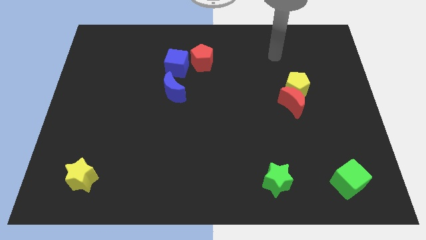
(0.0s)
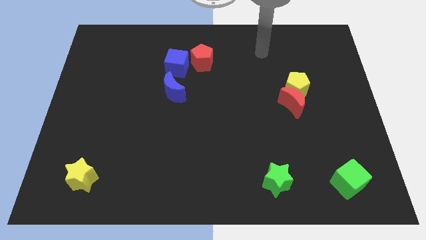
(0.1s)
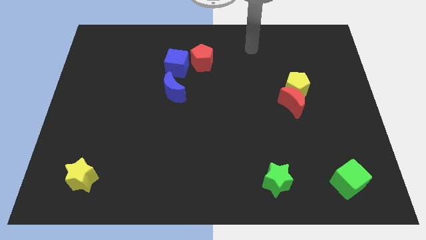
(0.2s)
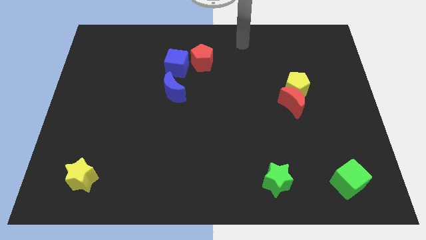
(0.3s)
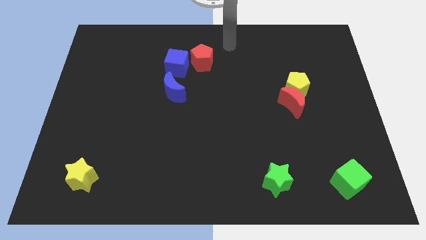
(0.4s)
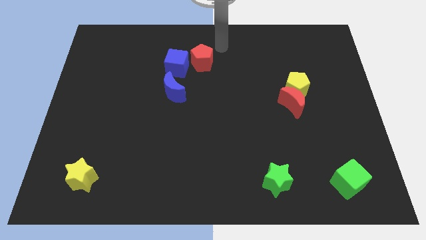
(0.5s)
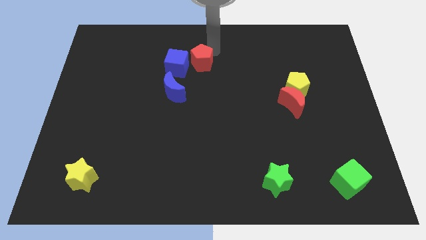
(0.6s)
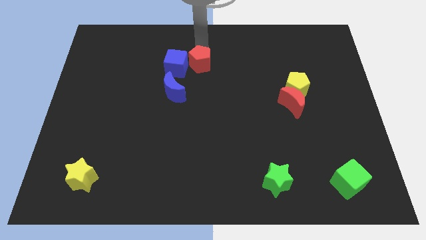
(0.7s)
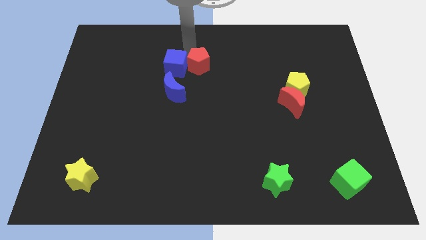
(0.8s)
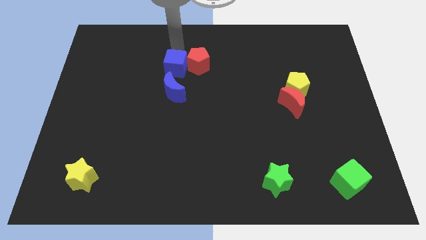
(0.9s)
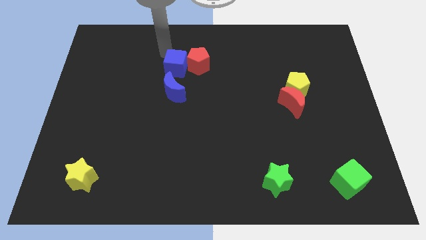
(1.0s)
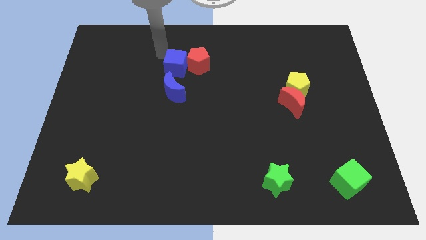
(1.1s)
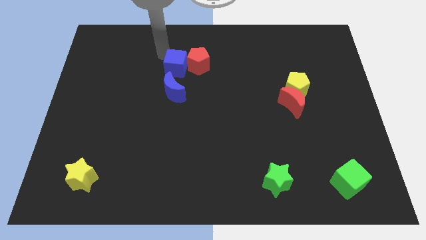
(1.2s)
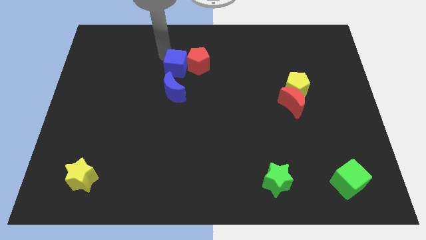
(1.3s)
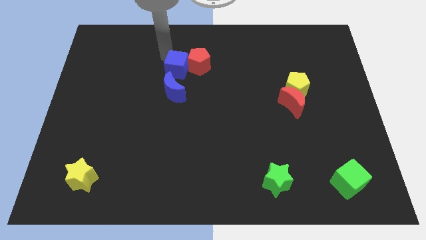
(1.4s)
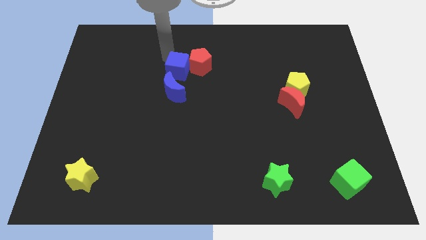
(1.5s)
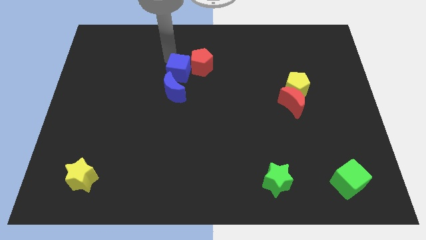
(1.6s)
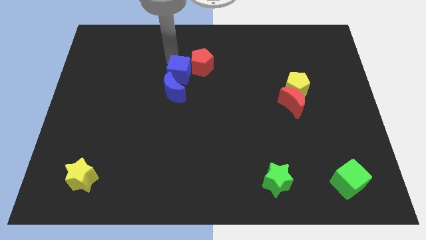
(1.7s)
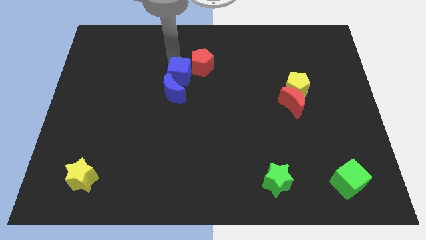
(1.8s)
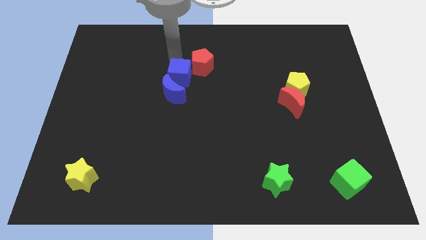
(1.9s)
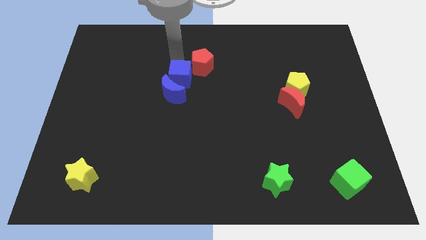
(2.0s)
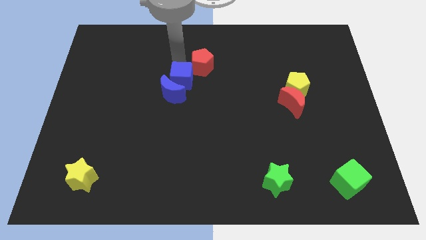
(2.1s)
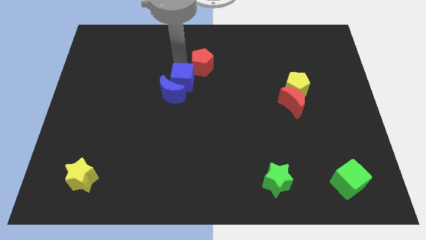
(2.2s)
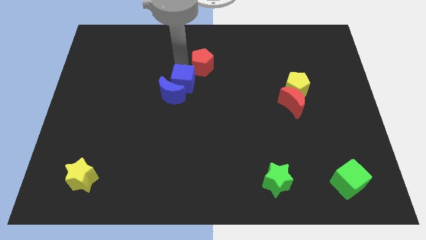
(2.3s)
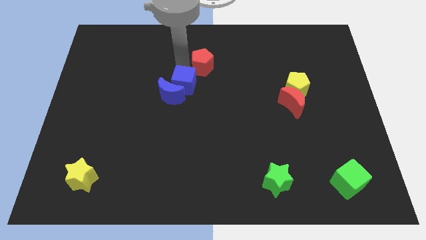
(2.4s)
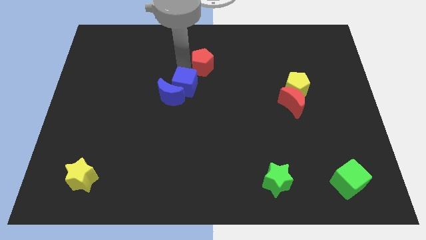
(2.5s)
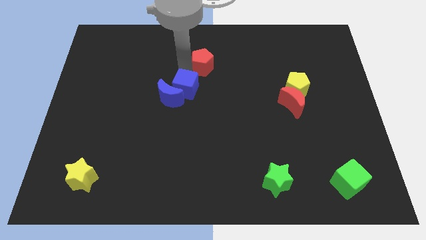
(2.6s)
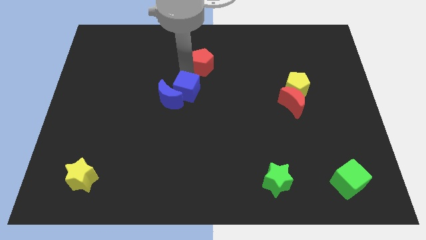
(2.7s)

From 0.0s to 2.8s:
slide the blue cube down and right diagonally a bit

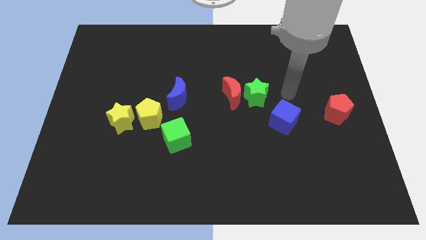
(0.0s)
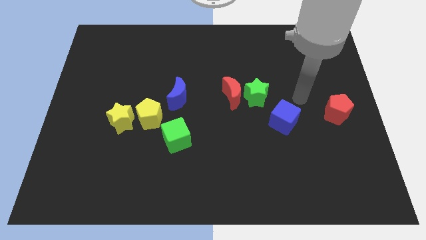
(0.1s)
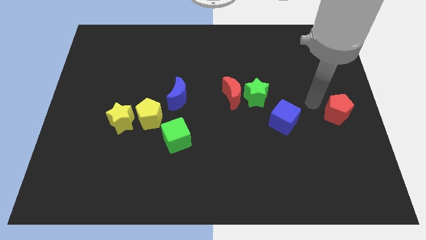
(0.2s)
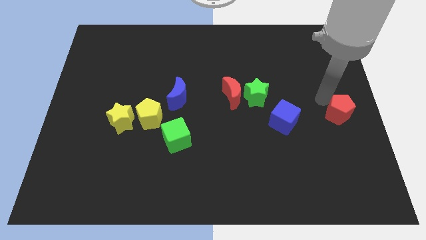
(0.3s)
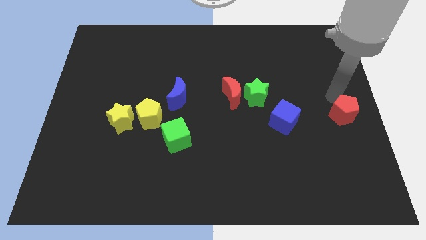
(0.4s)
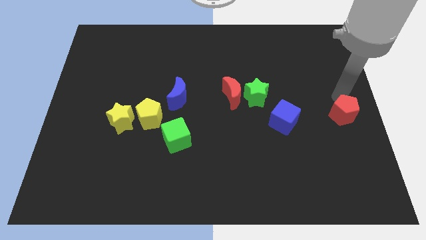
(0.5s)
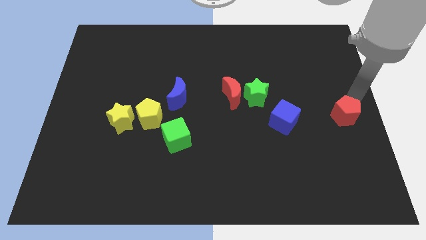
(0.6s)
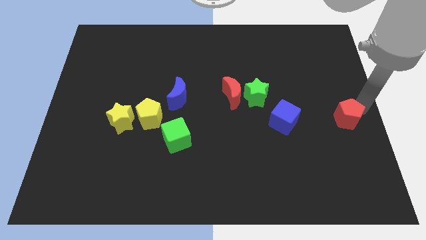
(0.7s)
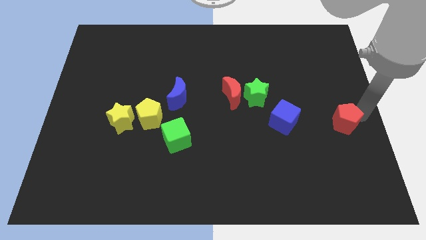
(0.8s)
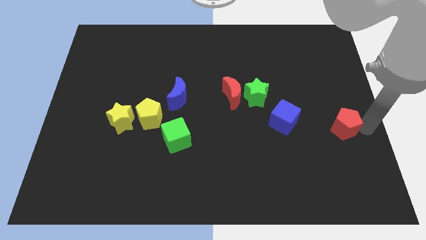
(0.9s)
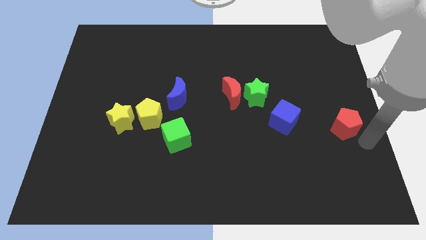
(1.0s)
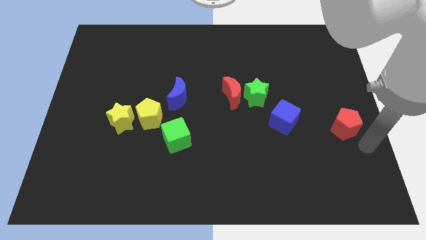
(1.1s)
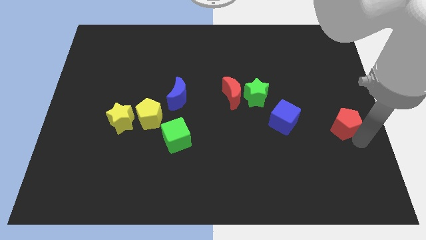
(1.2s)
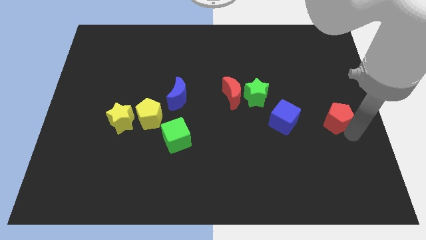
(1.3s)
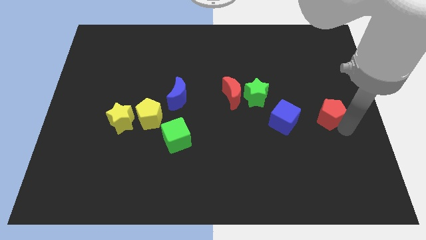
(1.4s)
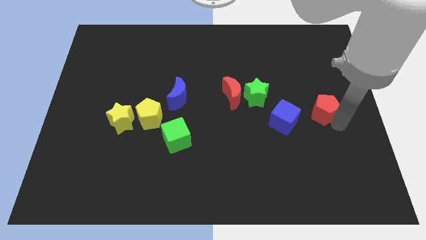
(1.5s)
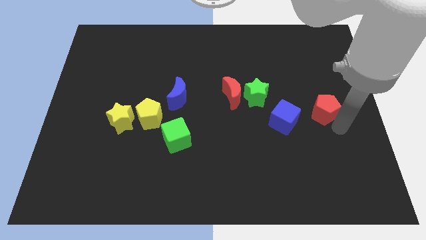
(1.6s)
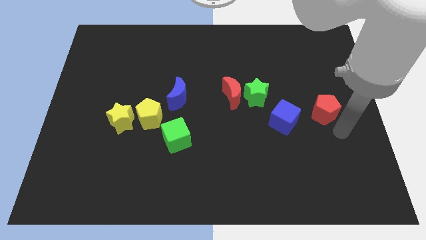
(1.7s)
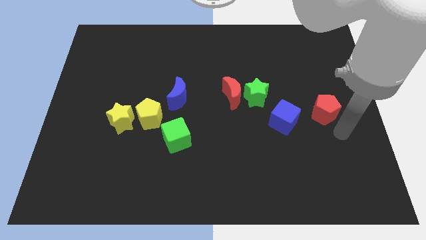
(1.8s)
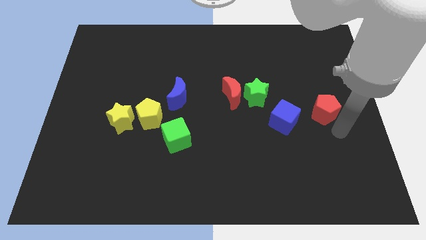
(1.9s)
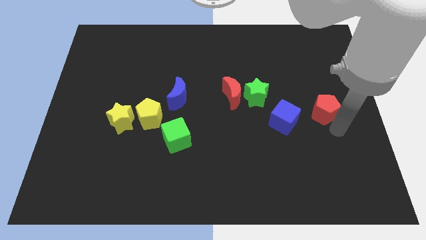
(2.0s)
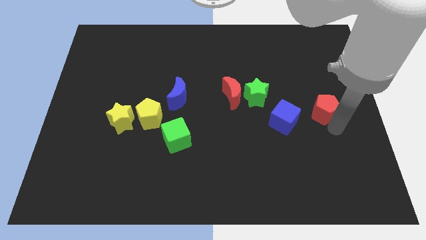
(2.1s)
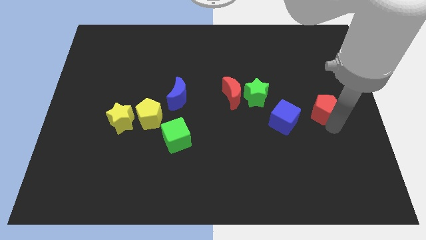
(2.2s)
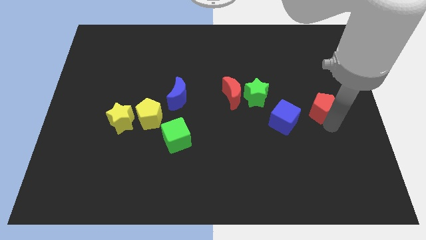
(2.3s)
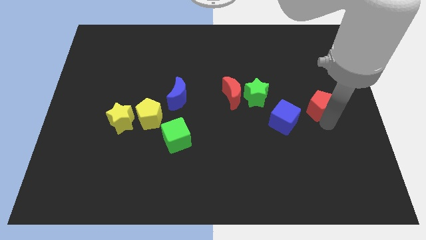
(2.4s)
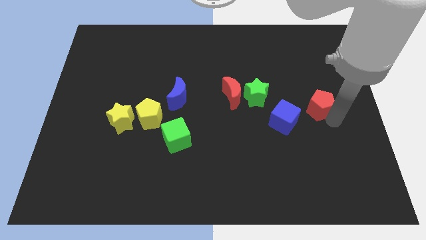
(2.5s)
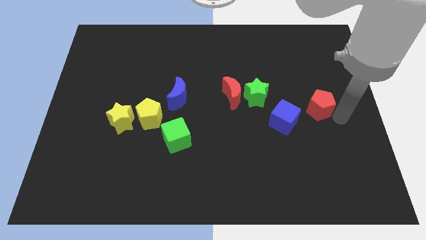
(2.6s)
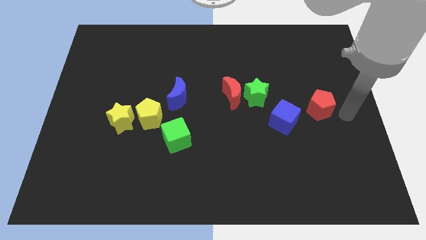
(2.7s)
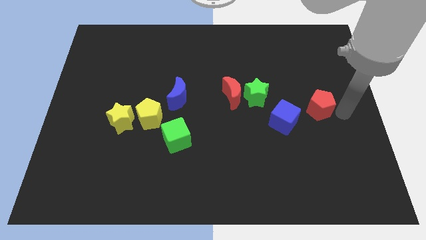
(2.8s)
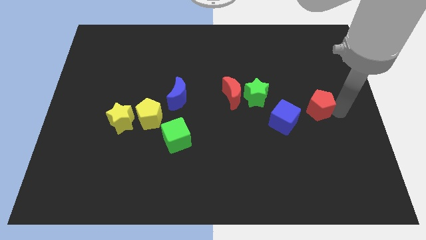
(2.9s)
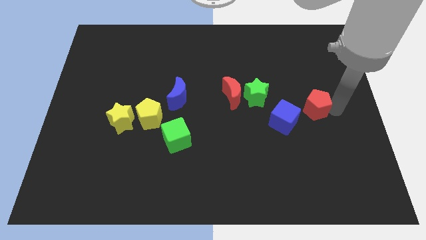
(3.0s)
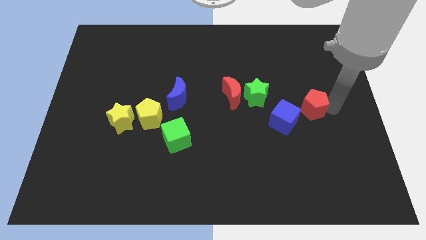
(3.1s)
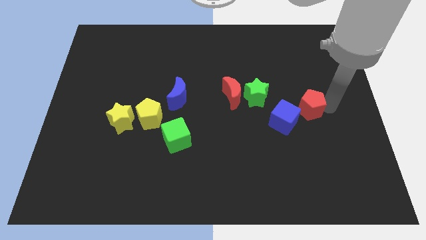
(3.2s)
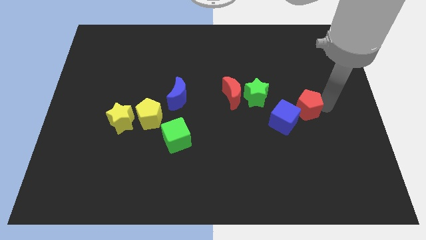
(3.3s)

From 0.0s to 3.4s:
slide the red pentagon to the left a bit

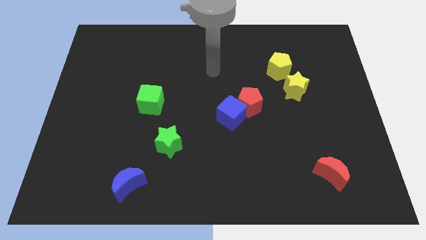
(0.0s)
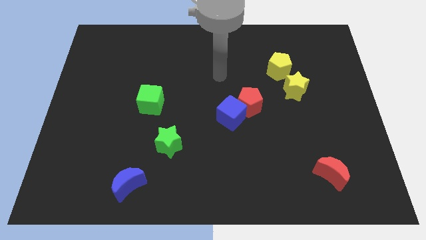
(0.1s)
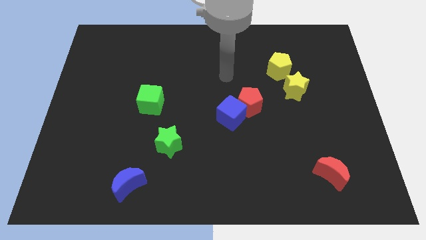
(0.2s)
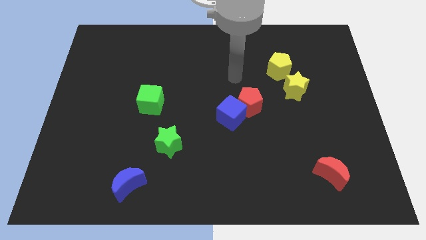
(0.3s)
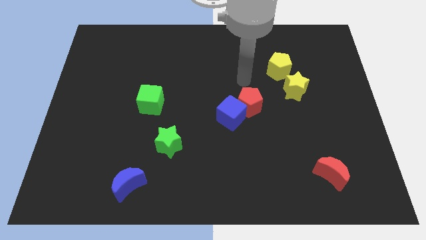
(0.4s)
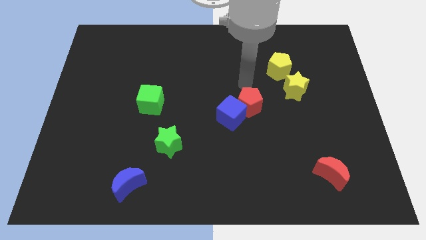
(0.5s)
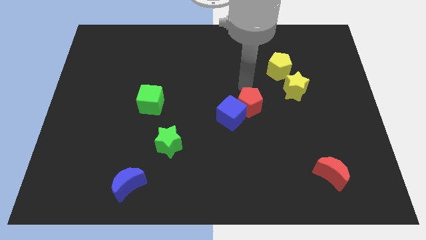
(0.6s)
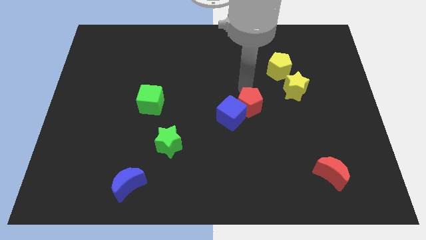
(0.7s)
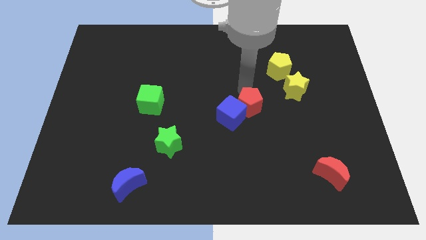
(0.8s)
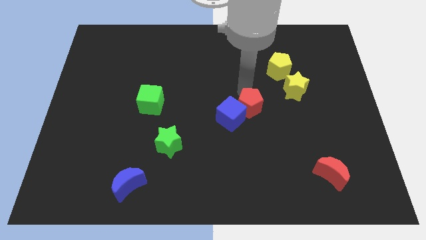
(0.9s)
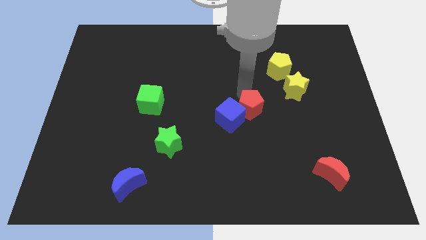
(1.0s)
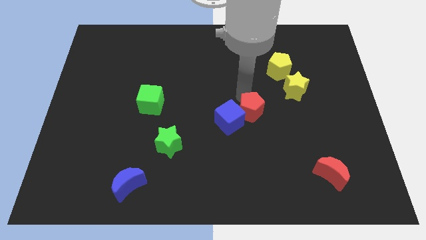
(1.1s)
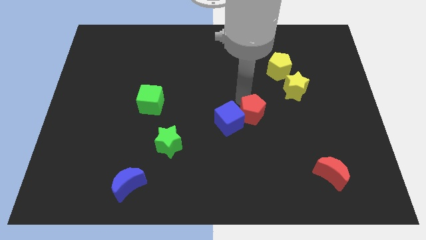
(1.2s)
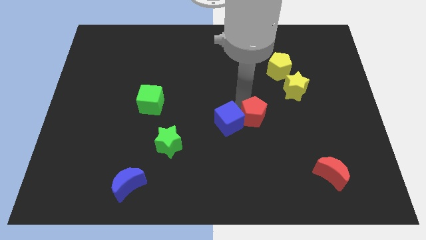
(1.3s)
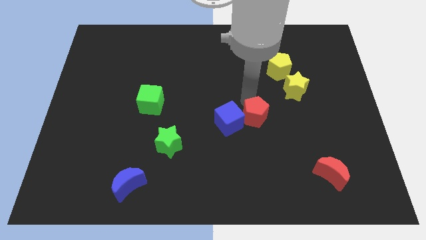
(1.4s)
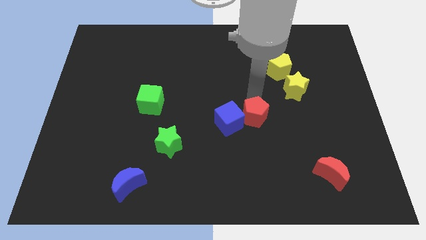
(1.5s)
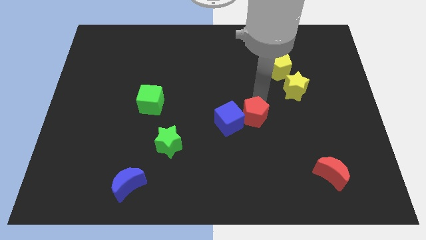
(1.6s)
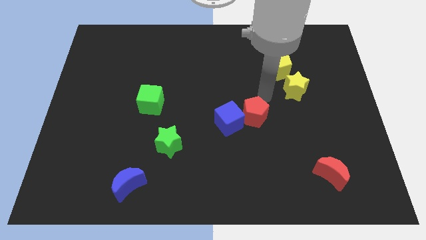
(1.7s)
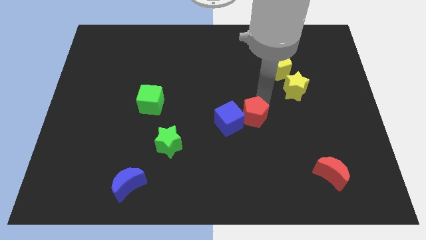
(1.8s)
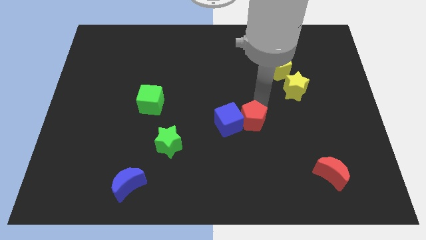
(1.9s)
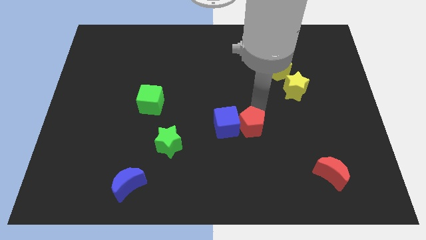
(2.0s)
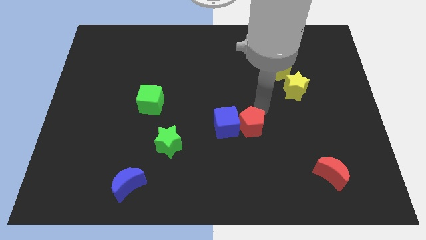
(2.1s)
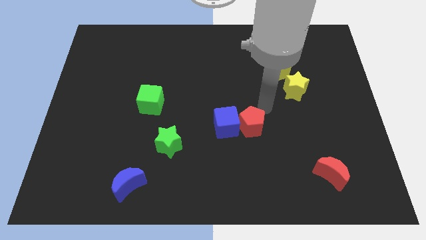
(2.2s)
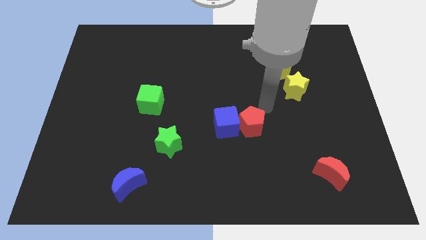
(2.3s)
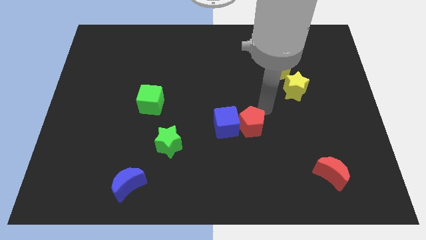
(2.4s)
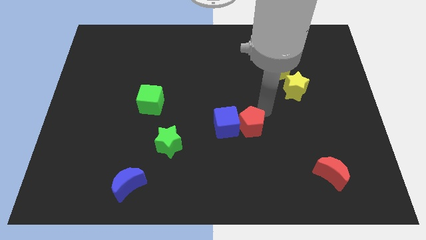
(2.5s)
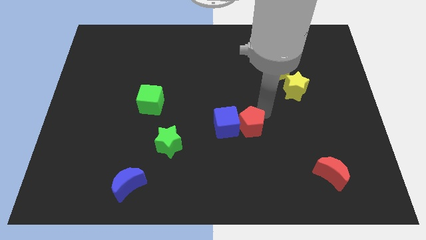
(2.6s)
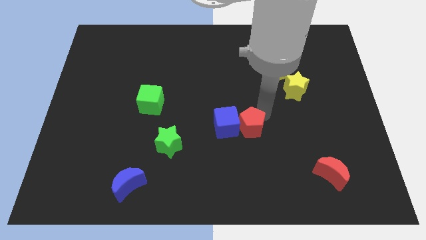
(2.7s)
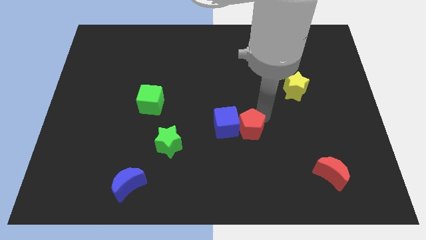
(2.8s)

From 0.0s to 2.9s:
push the red pentagon downwards slightly
